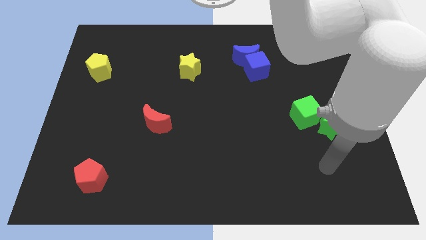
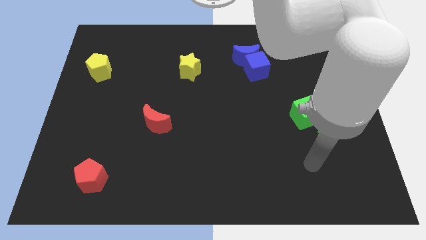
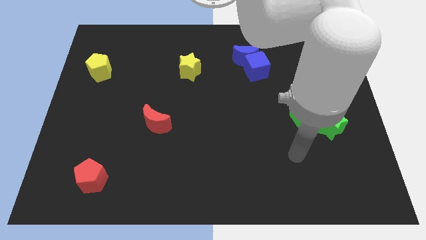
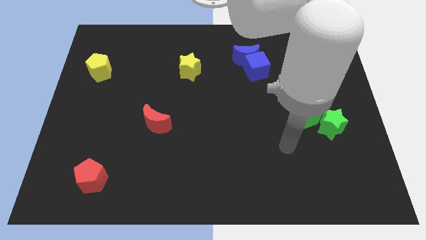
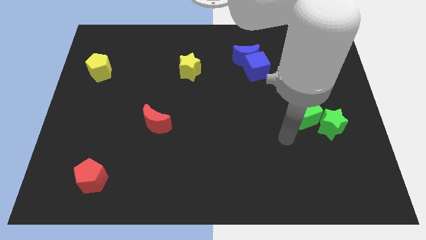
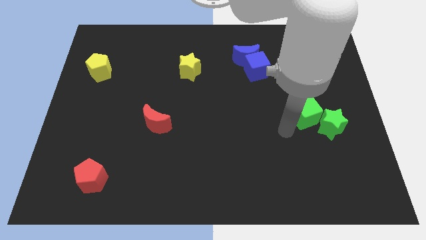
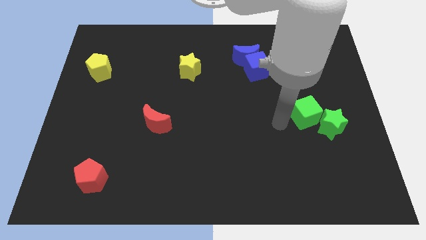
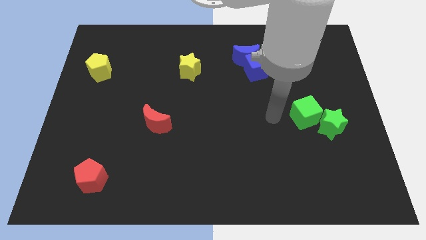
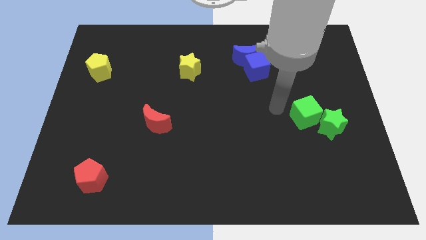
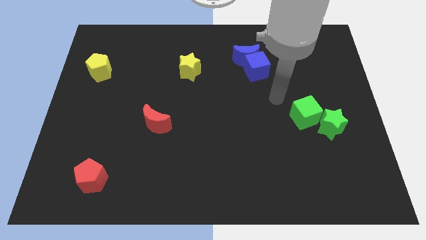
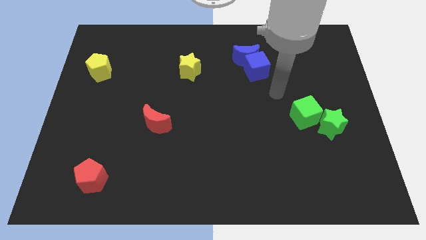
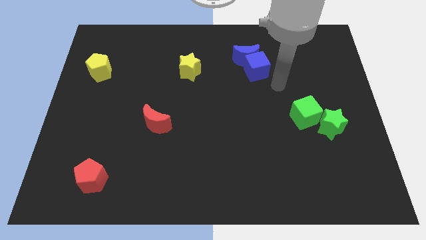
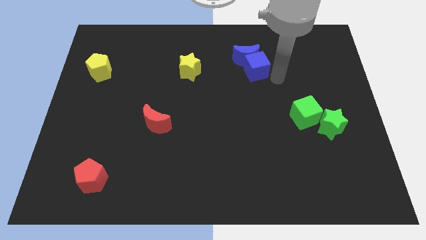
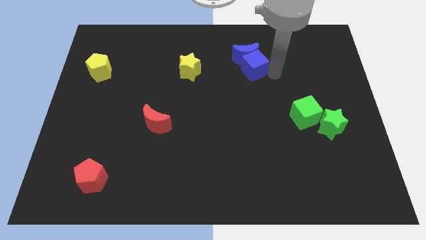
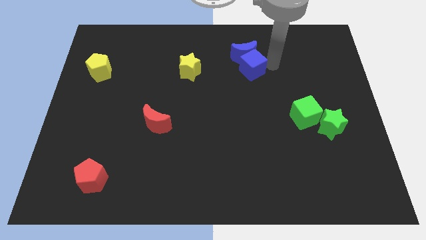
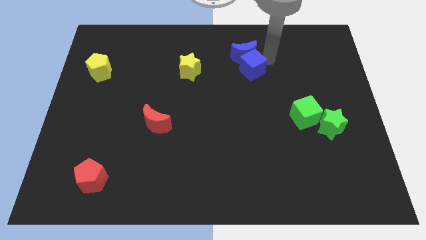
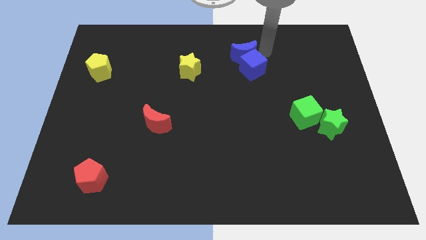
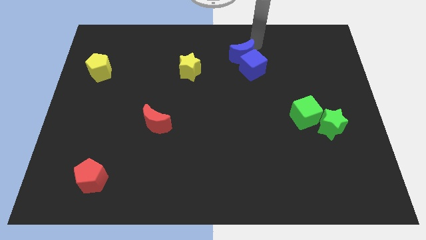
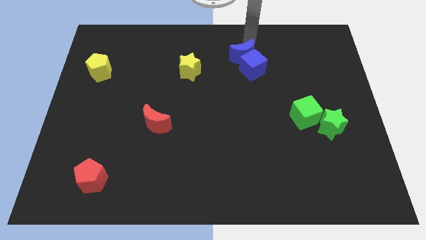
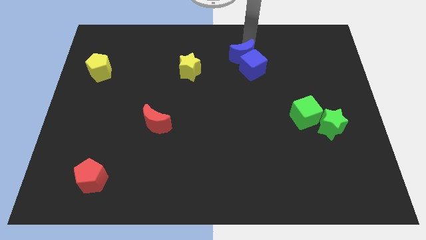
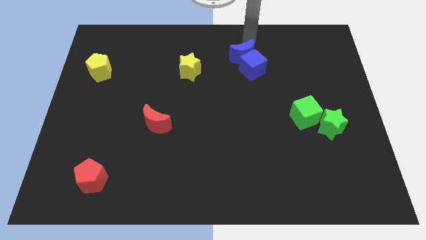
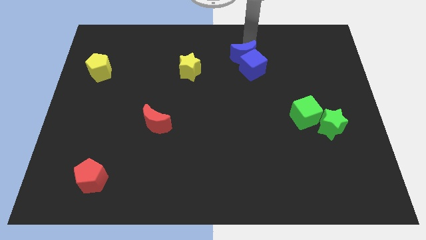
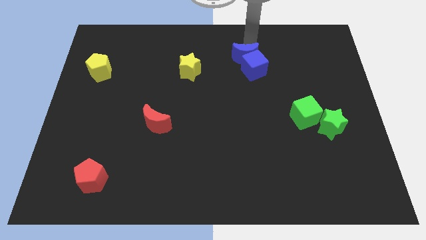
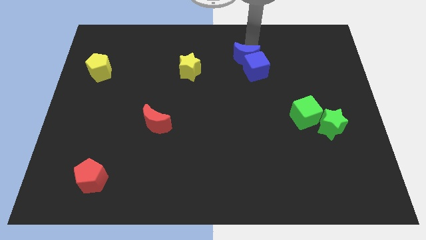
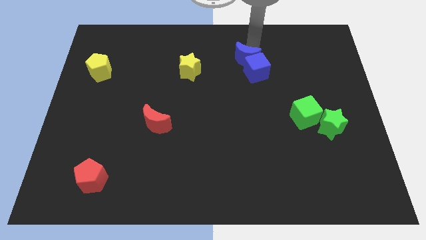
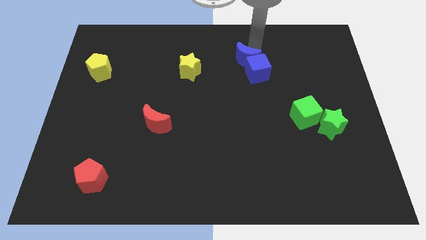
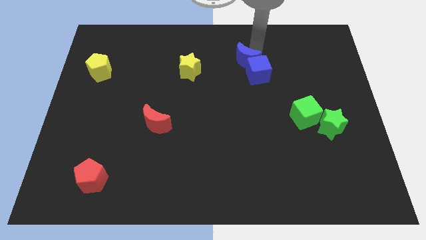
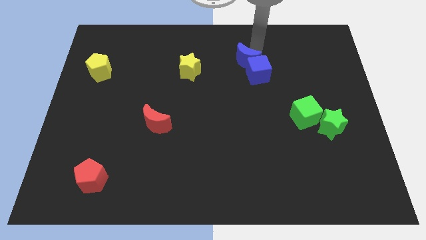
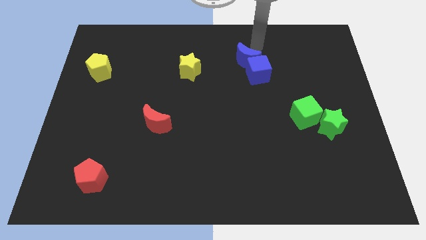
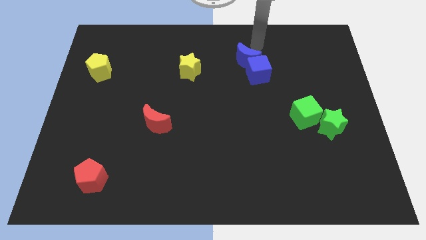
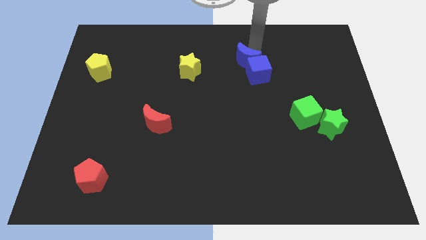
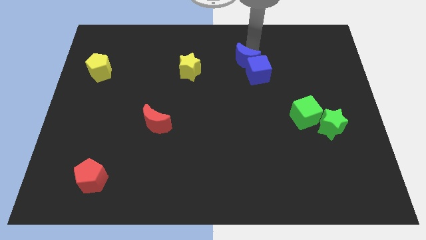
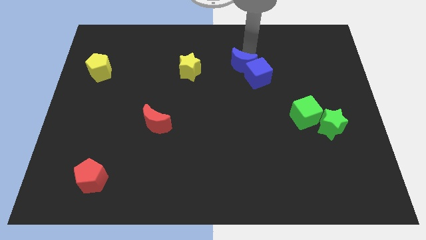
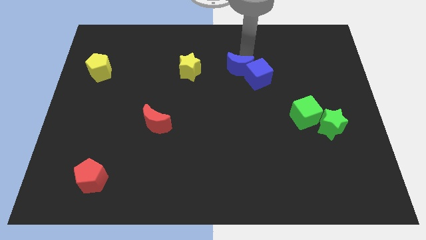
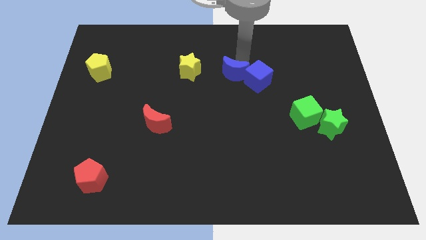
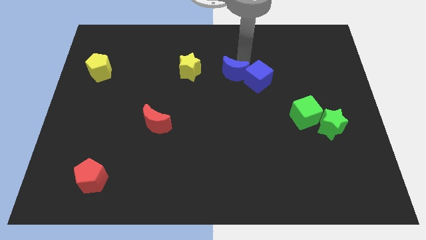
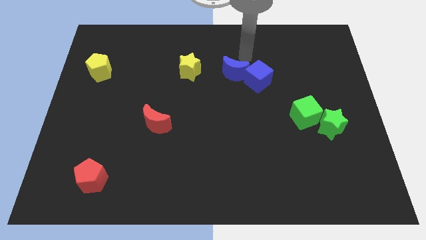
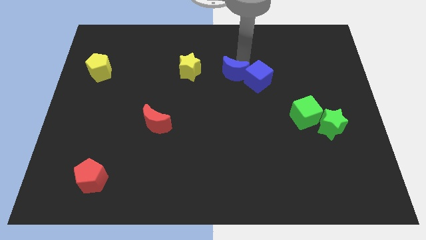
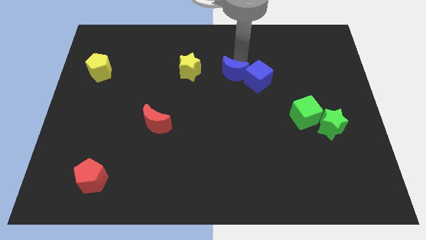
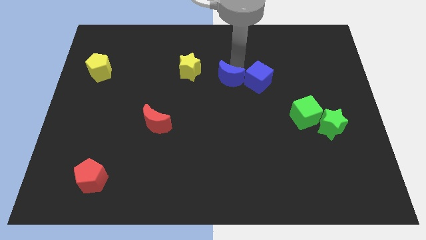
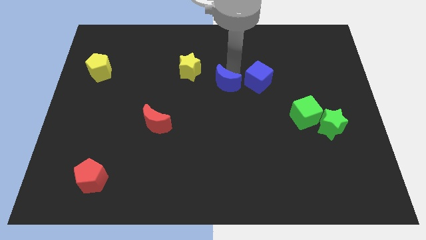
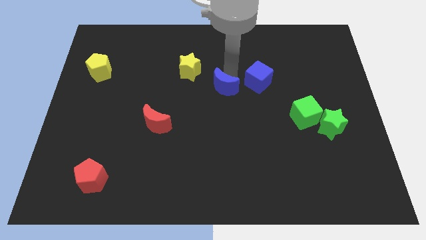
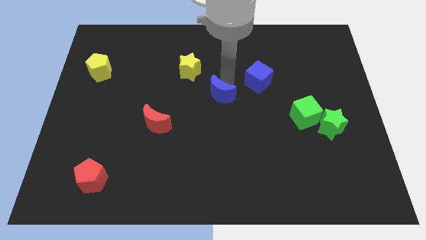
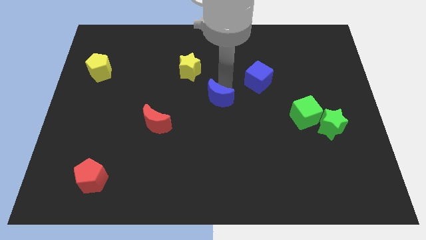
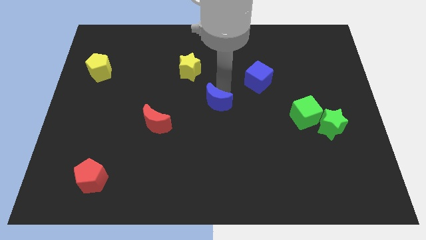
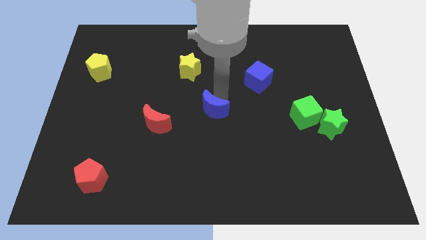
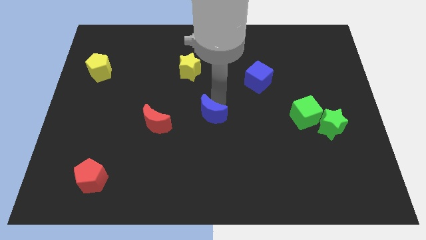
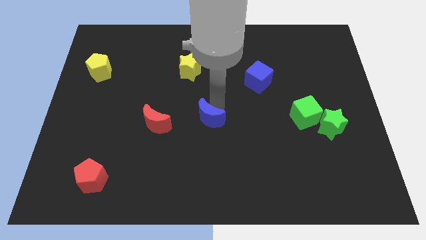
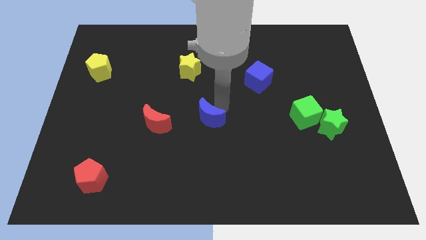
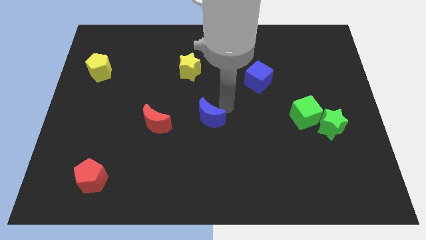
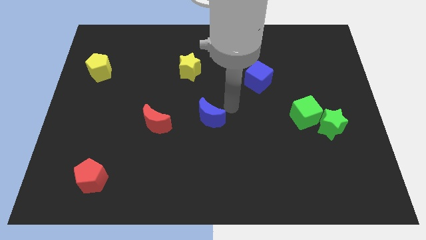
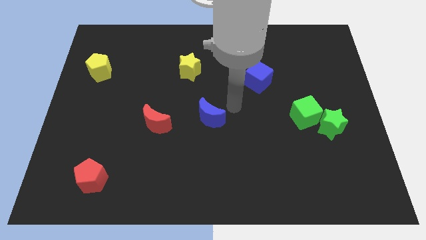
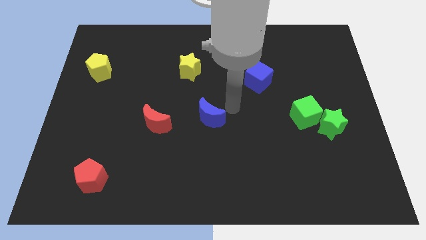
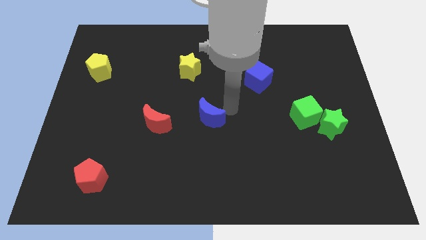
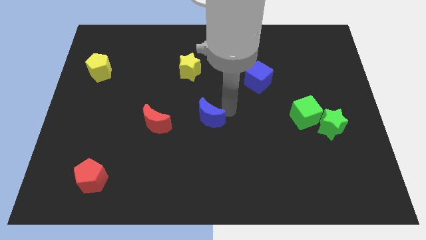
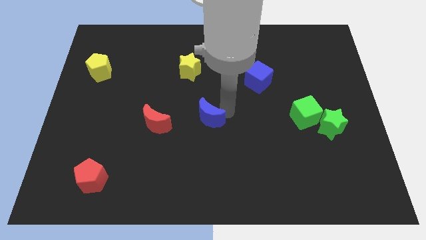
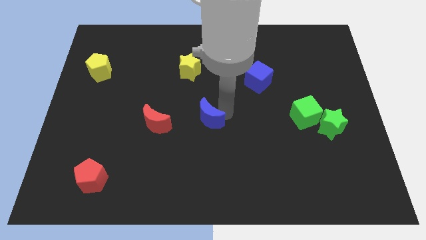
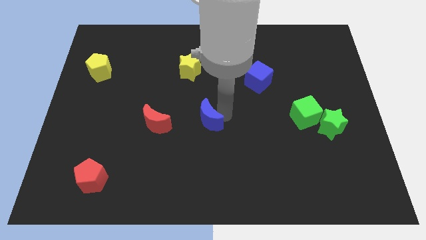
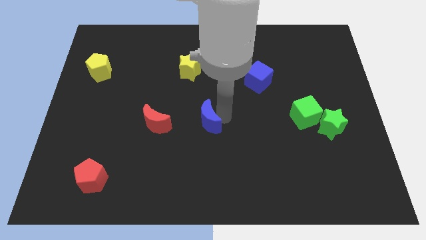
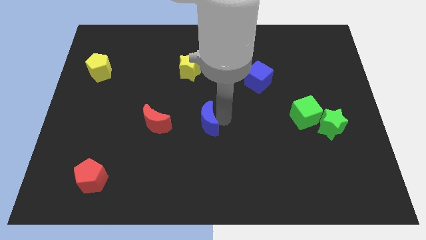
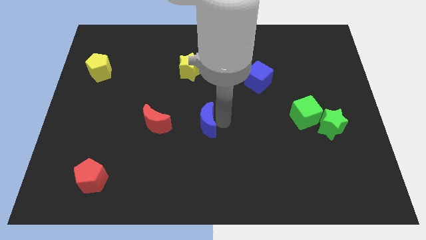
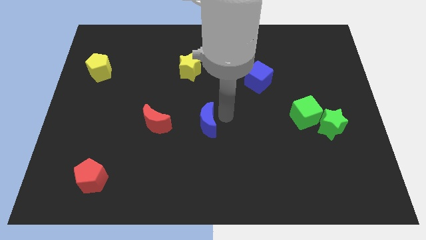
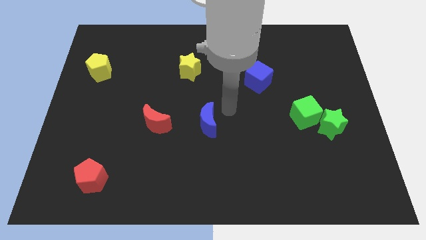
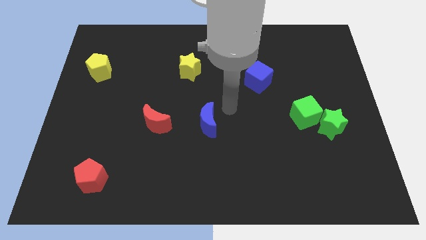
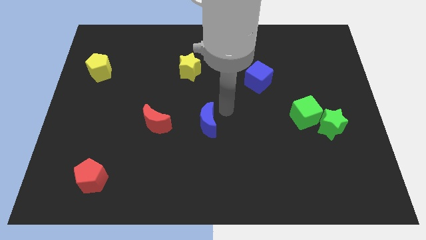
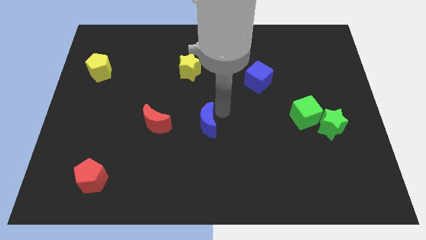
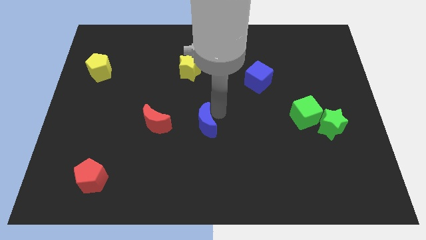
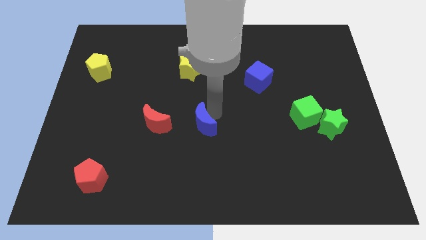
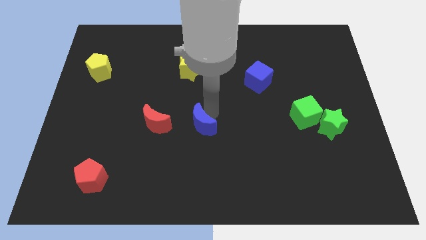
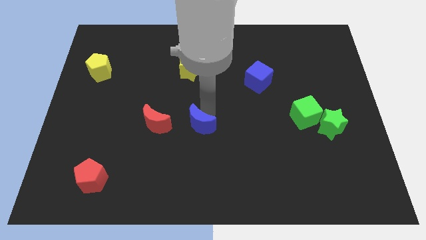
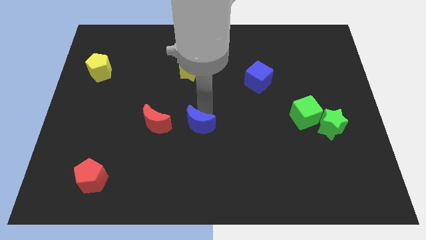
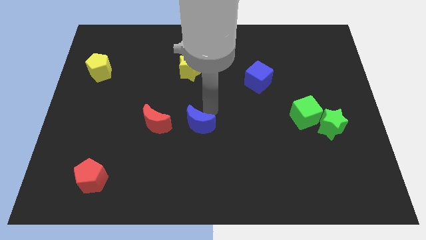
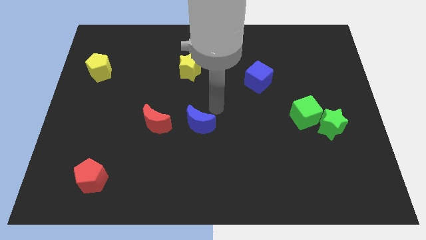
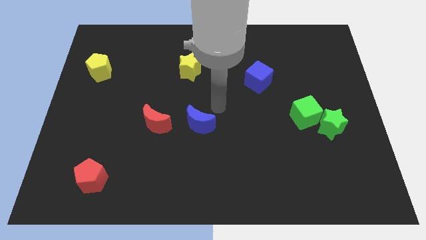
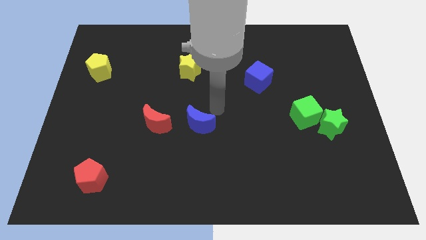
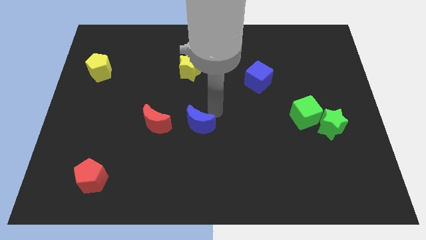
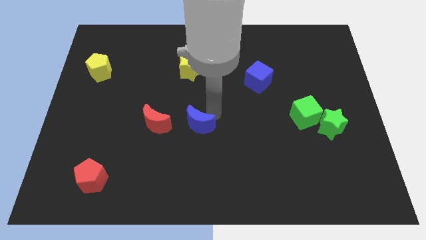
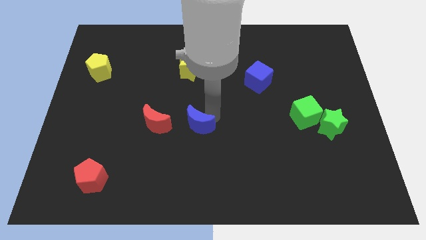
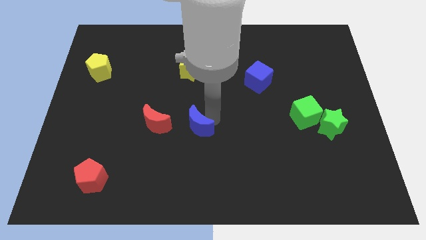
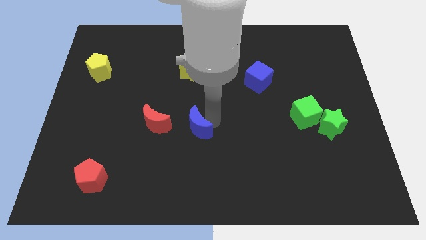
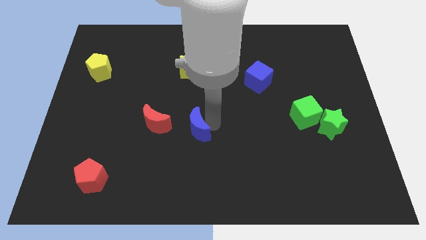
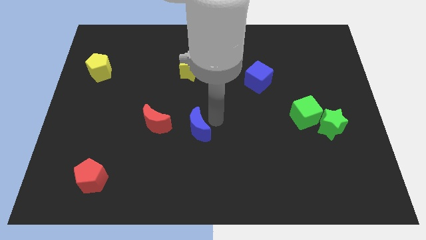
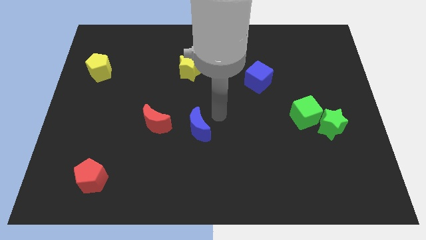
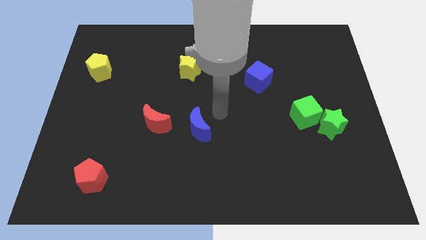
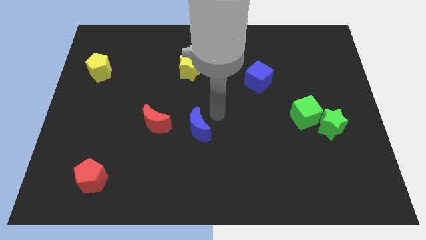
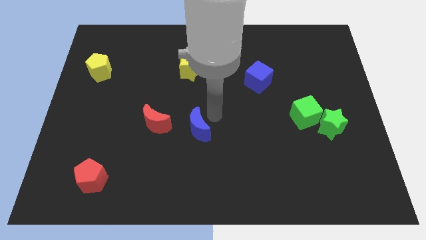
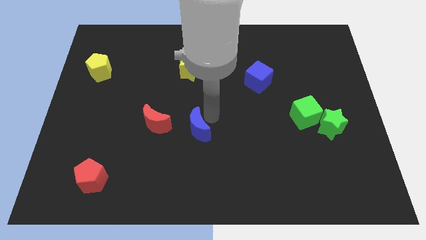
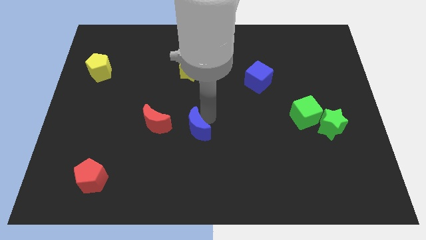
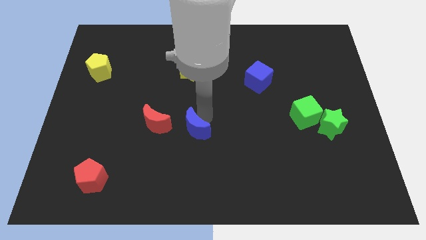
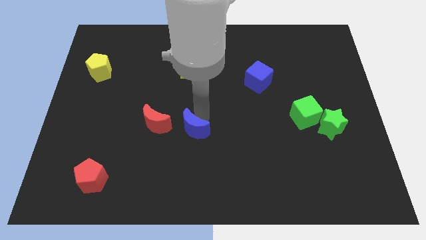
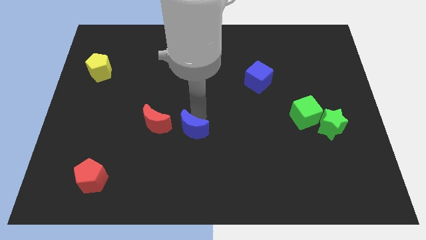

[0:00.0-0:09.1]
move the blue moon to the bottom right side of the red moon
